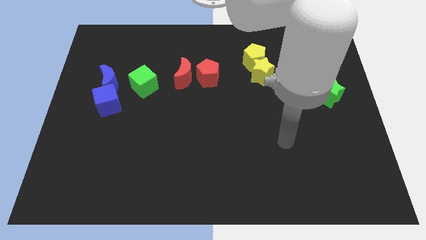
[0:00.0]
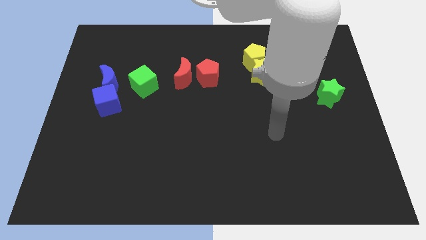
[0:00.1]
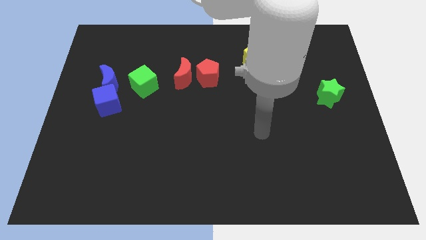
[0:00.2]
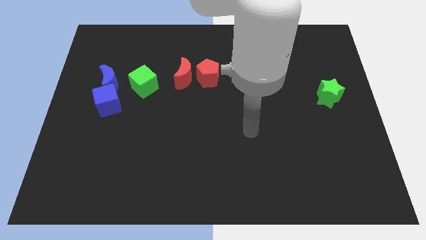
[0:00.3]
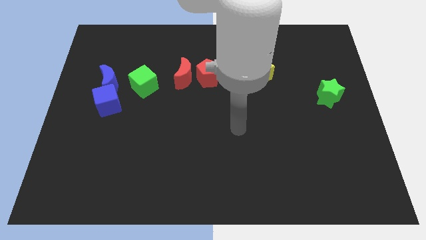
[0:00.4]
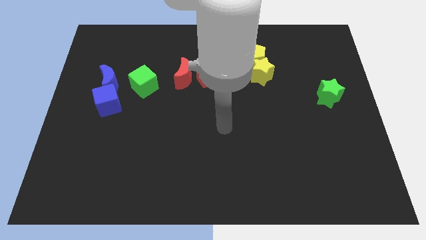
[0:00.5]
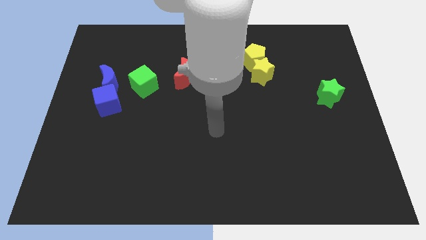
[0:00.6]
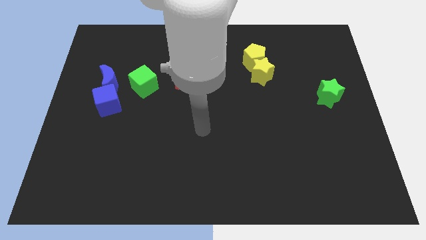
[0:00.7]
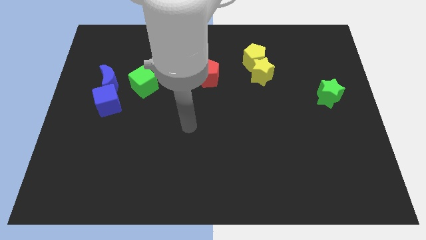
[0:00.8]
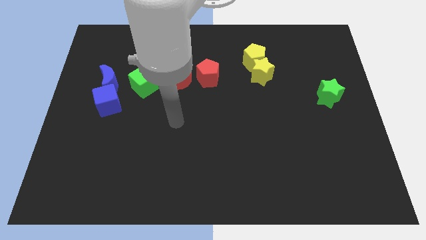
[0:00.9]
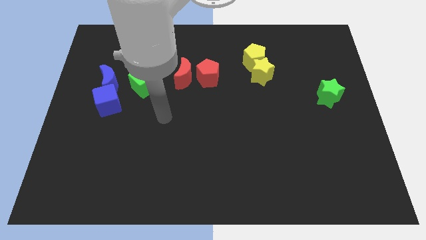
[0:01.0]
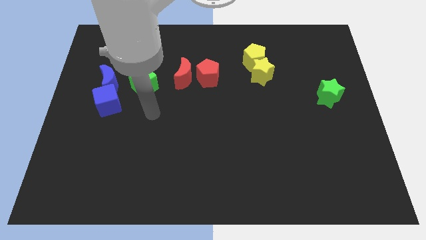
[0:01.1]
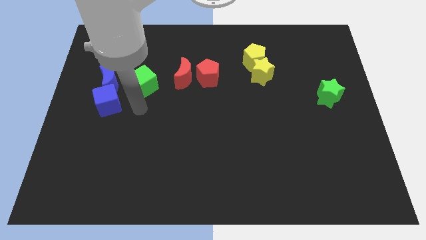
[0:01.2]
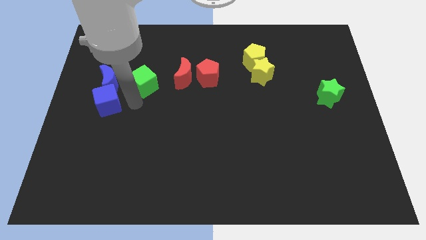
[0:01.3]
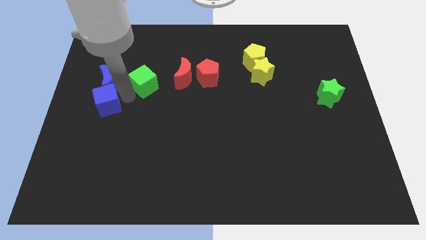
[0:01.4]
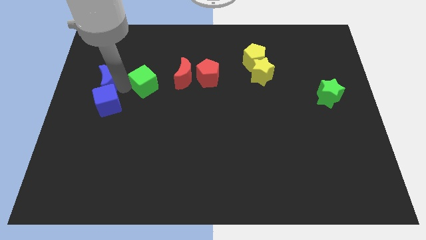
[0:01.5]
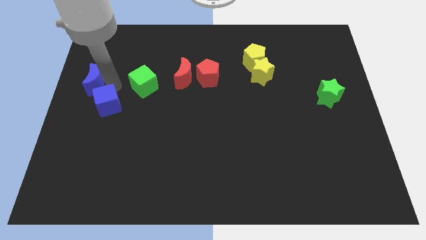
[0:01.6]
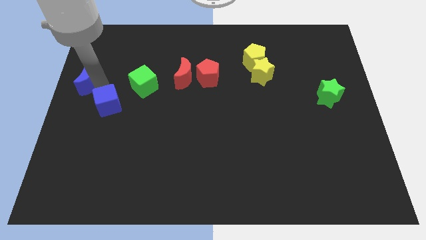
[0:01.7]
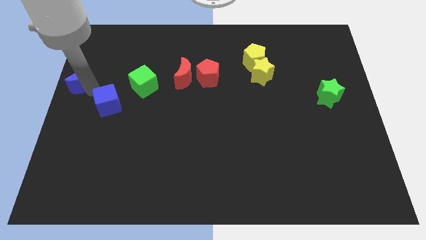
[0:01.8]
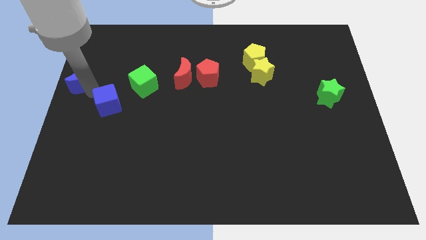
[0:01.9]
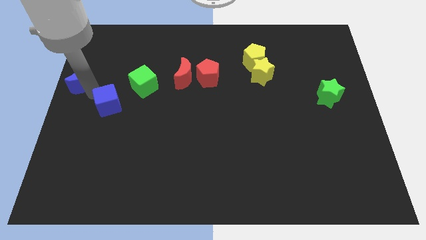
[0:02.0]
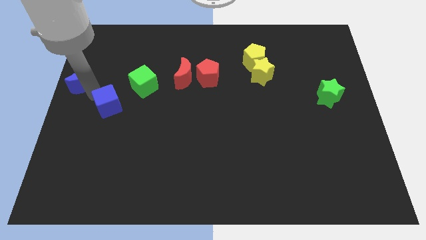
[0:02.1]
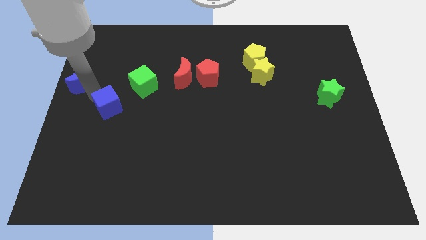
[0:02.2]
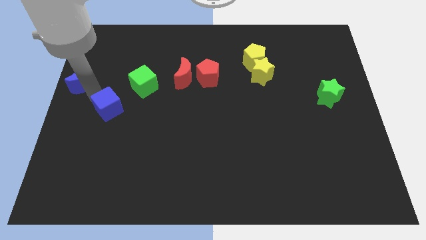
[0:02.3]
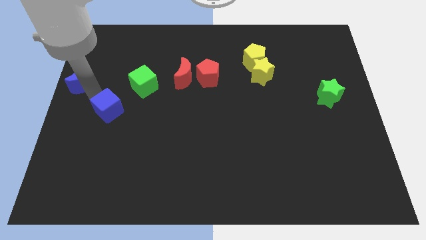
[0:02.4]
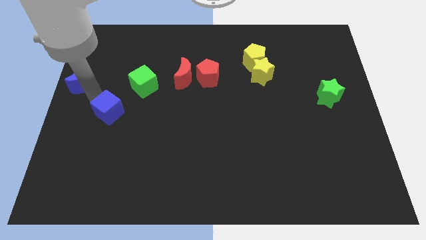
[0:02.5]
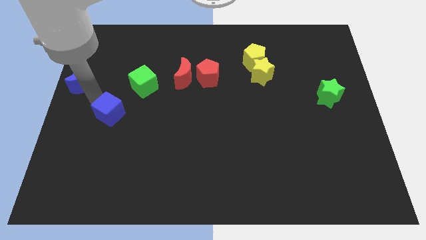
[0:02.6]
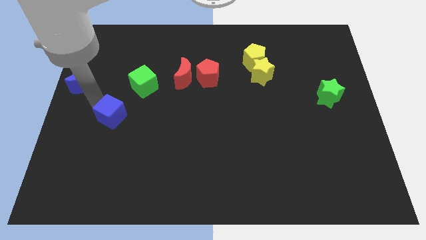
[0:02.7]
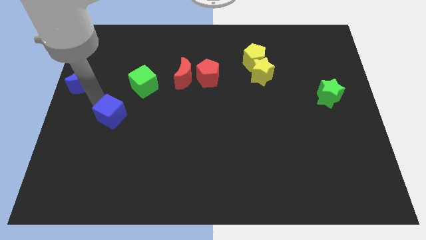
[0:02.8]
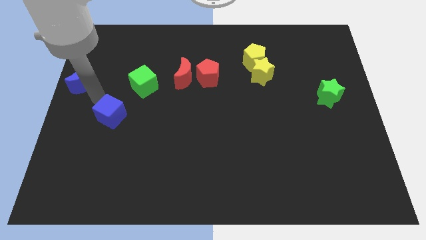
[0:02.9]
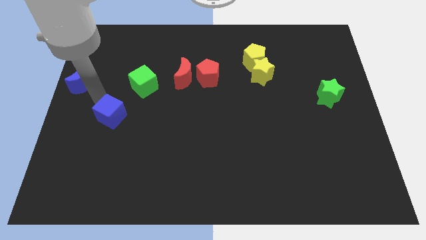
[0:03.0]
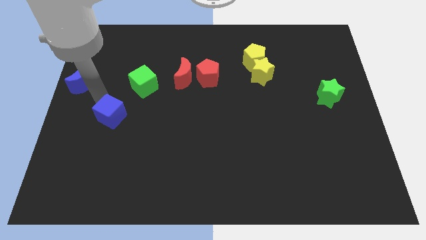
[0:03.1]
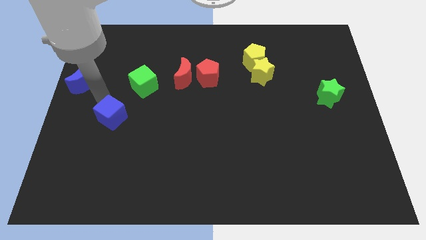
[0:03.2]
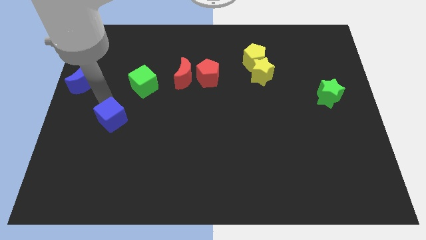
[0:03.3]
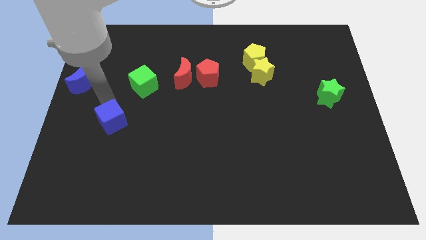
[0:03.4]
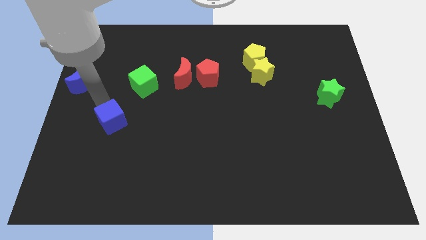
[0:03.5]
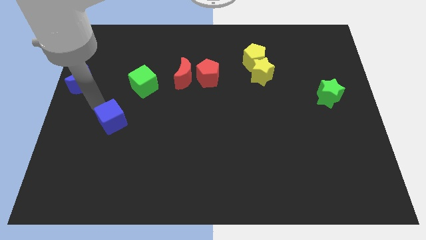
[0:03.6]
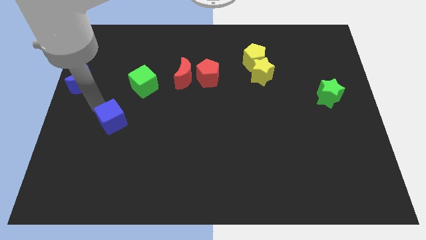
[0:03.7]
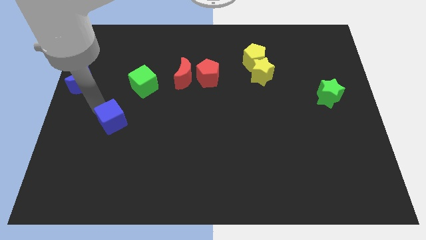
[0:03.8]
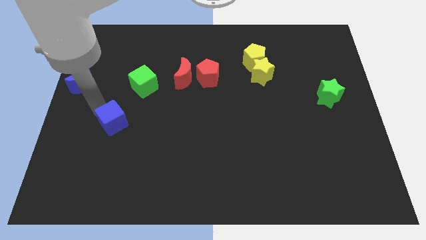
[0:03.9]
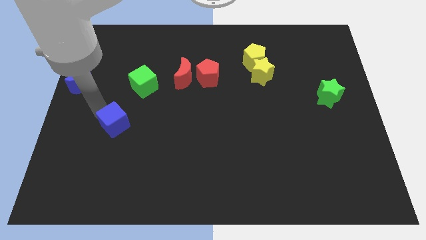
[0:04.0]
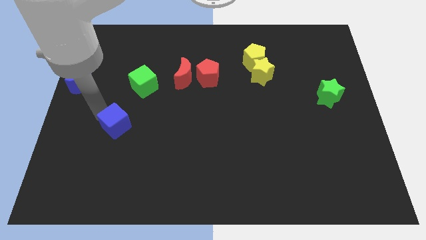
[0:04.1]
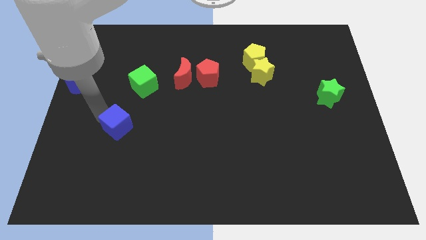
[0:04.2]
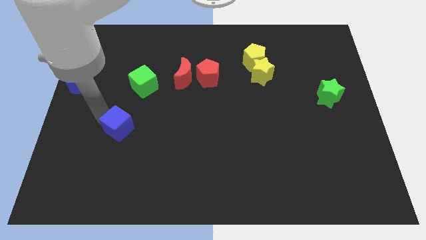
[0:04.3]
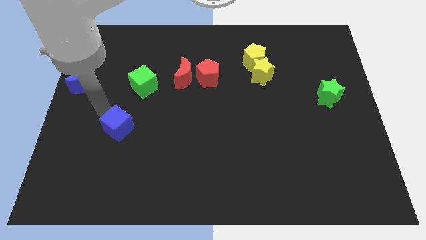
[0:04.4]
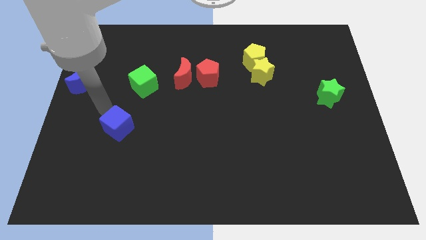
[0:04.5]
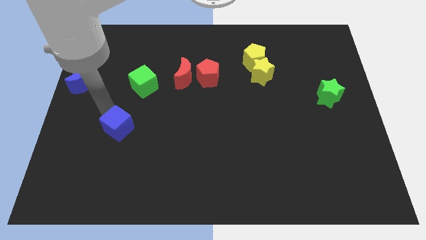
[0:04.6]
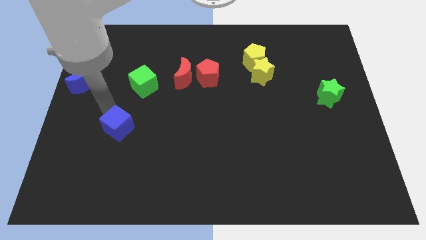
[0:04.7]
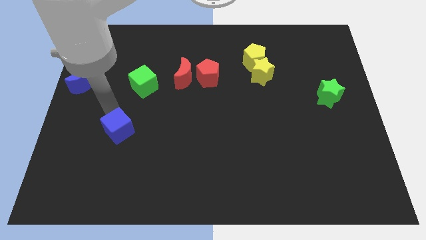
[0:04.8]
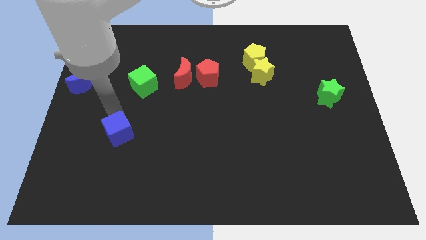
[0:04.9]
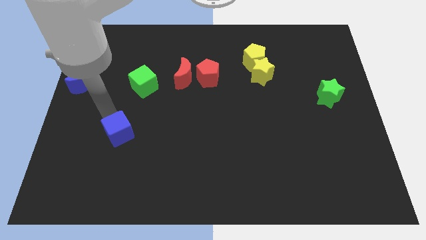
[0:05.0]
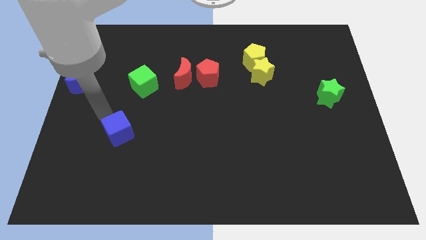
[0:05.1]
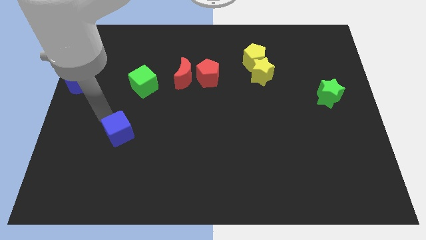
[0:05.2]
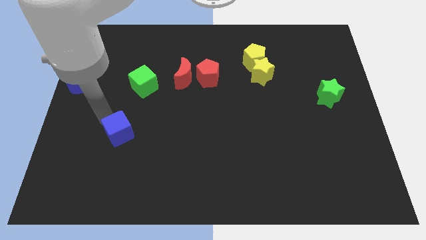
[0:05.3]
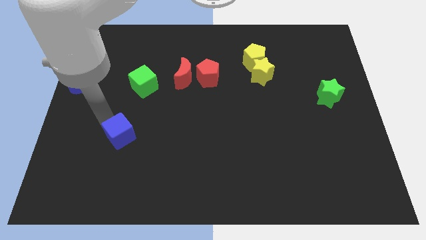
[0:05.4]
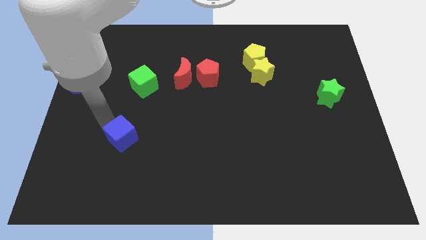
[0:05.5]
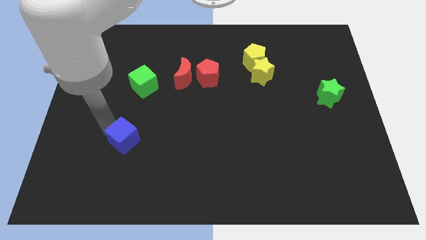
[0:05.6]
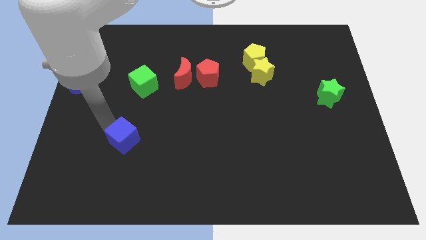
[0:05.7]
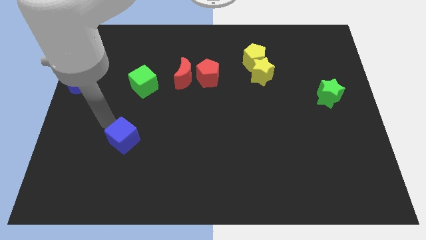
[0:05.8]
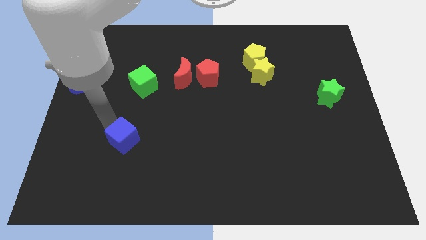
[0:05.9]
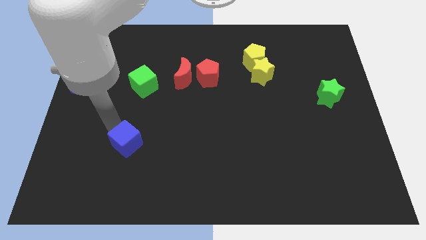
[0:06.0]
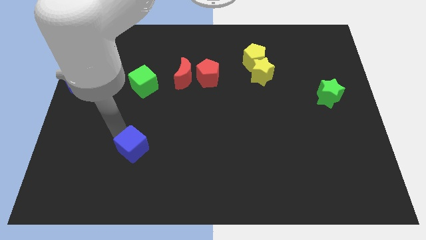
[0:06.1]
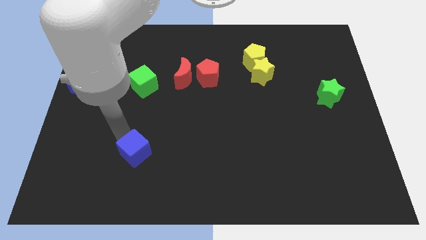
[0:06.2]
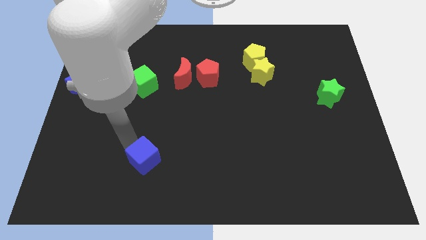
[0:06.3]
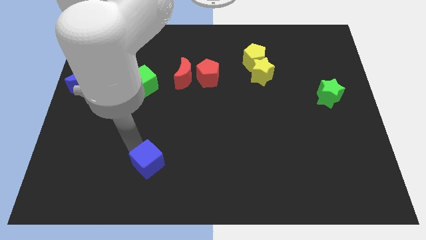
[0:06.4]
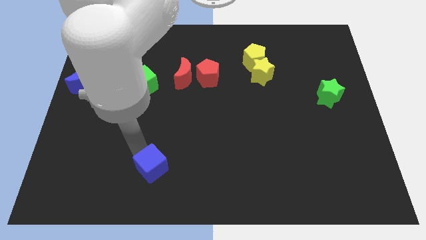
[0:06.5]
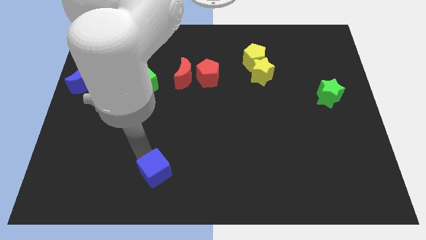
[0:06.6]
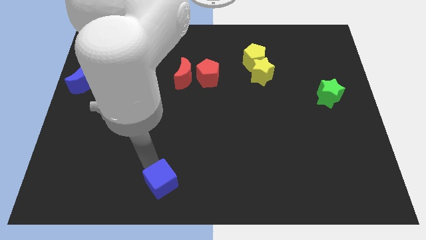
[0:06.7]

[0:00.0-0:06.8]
push the blue cube to the bottom side
